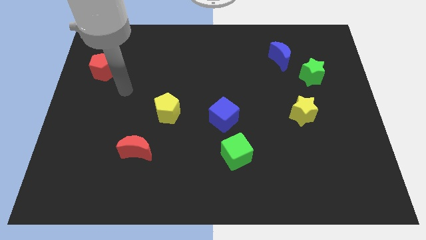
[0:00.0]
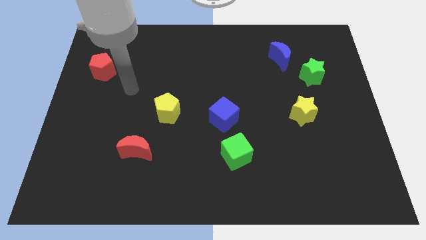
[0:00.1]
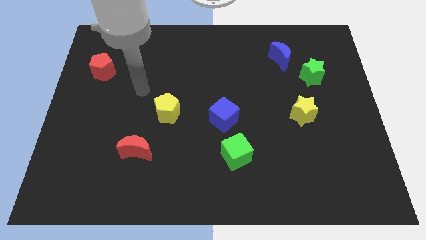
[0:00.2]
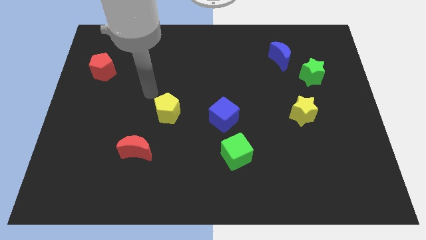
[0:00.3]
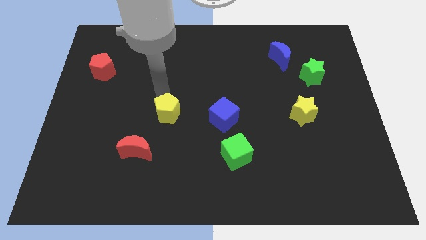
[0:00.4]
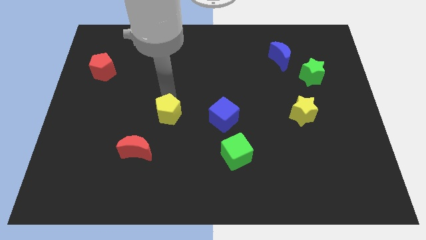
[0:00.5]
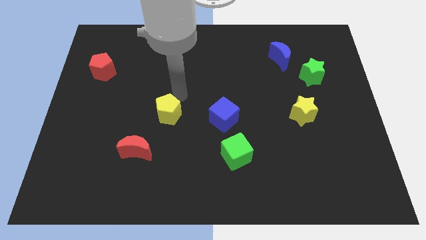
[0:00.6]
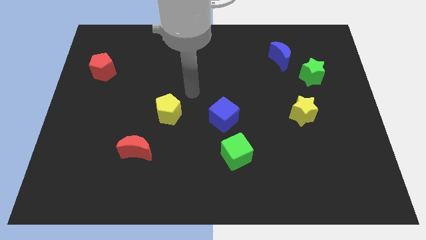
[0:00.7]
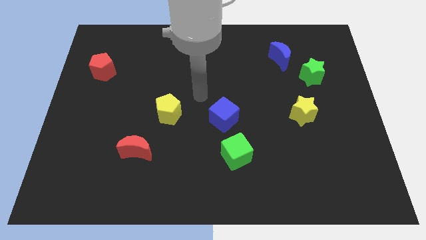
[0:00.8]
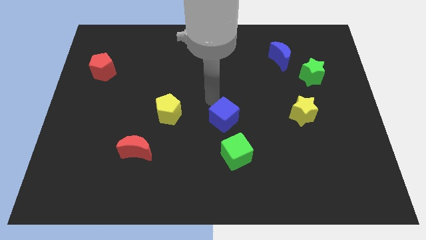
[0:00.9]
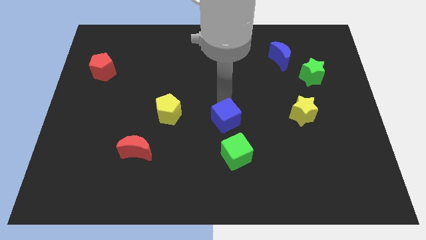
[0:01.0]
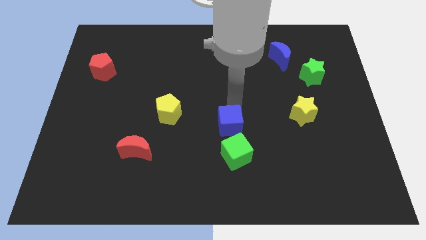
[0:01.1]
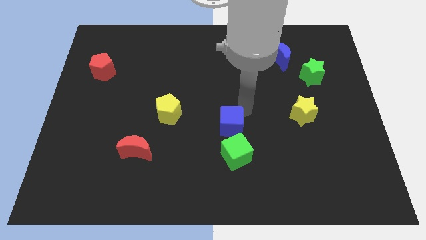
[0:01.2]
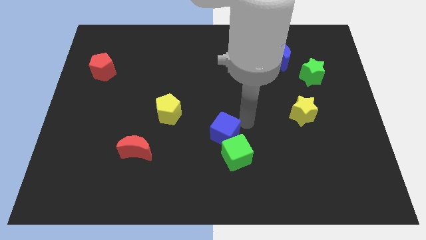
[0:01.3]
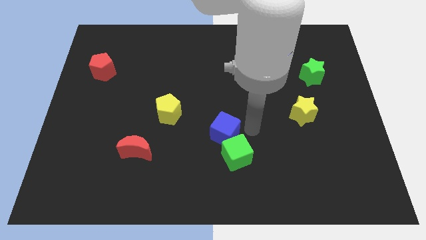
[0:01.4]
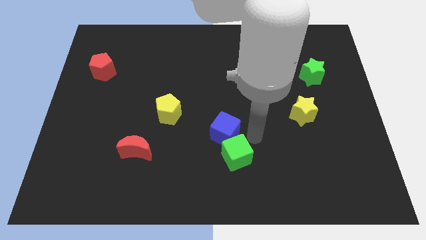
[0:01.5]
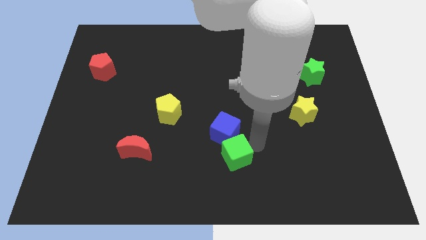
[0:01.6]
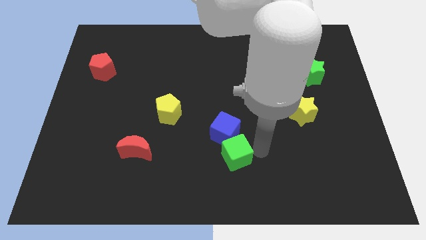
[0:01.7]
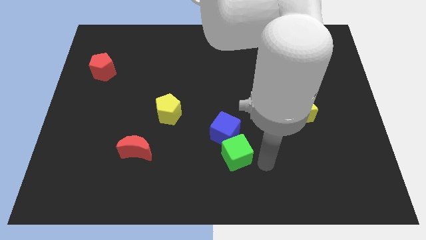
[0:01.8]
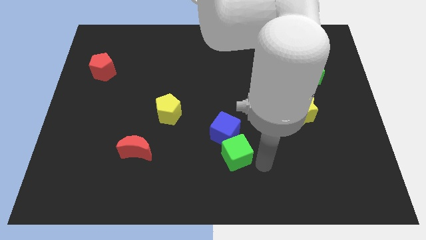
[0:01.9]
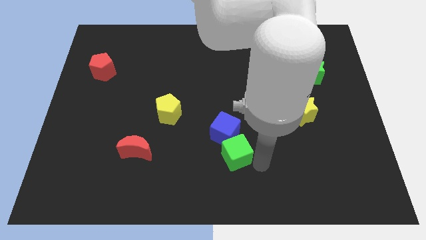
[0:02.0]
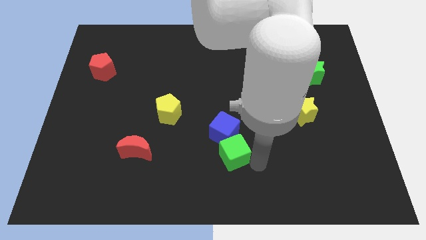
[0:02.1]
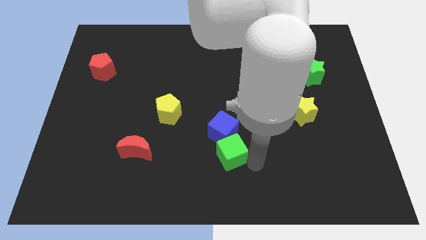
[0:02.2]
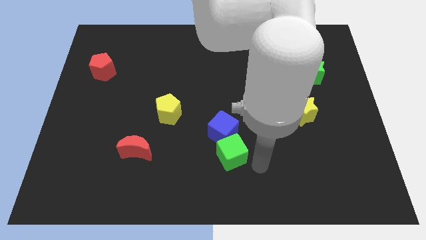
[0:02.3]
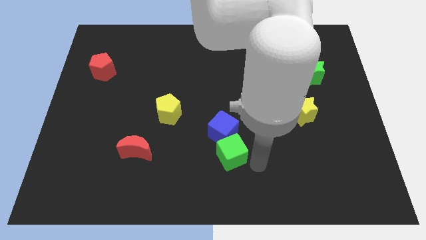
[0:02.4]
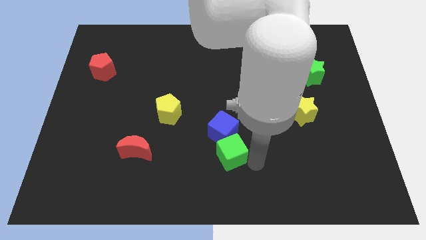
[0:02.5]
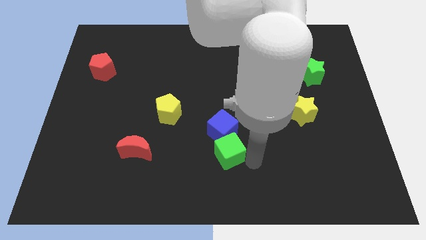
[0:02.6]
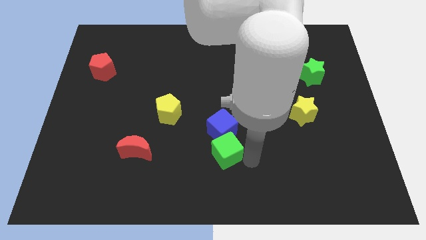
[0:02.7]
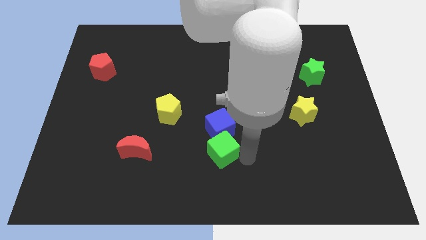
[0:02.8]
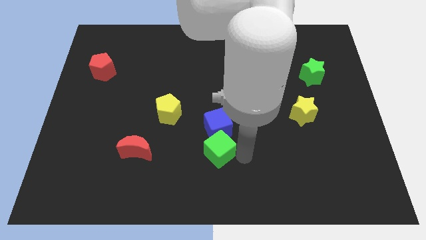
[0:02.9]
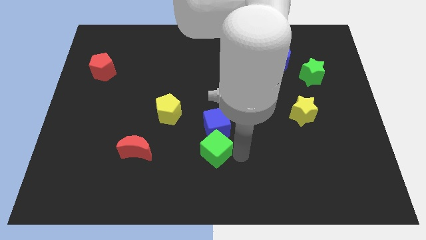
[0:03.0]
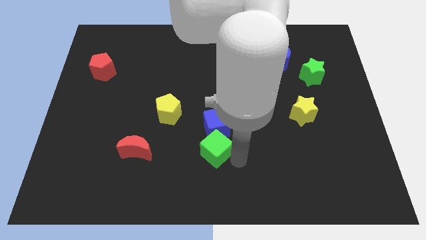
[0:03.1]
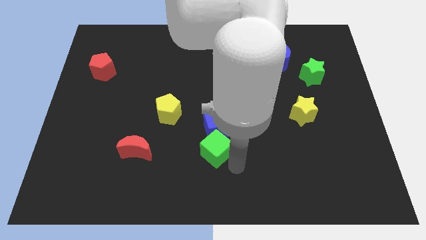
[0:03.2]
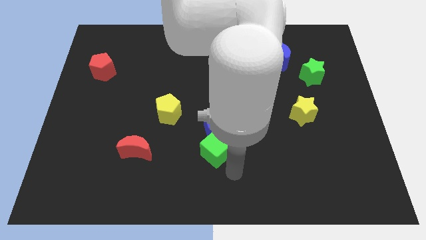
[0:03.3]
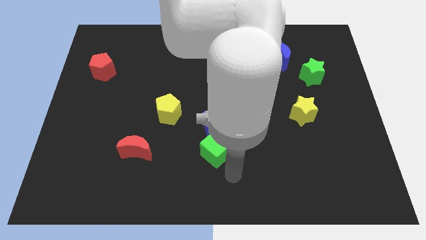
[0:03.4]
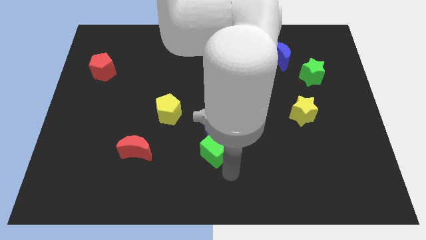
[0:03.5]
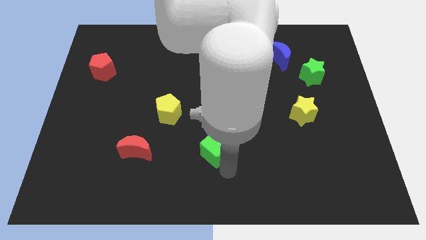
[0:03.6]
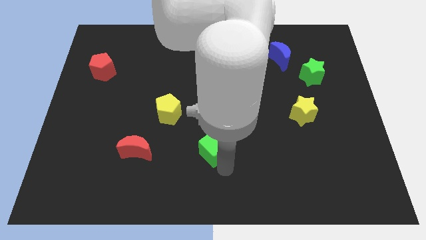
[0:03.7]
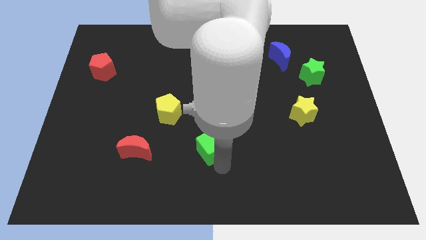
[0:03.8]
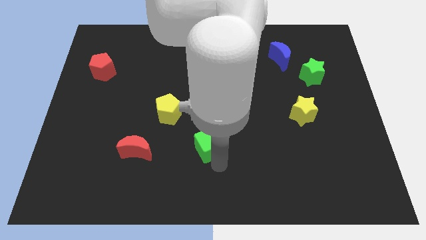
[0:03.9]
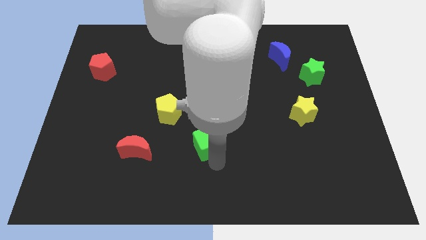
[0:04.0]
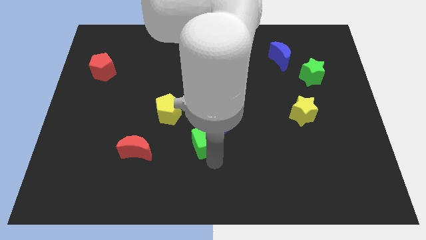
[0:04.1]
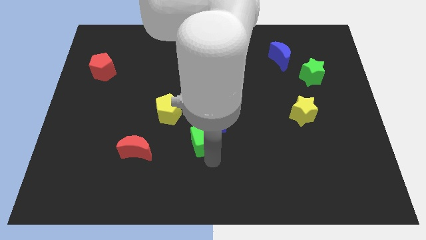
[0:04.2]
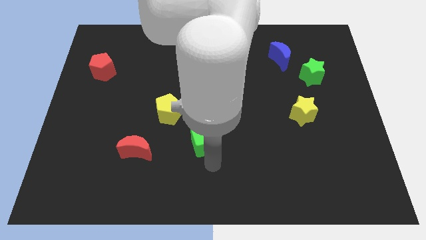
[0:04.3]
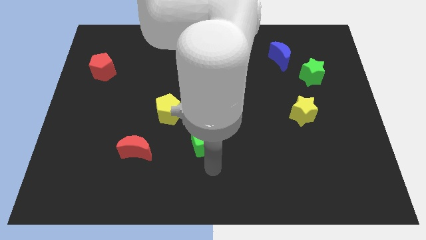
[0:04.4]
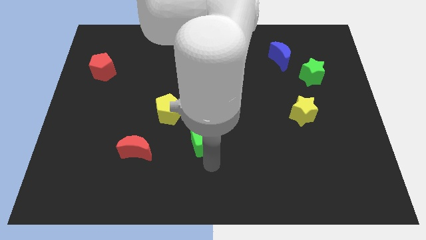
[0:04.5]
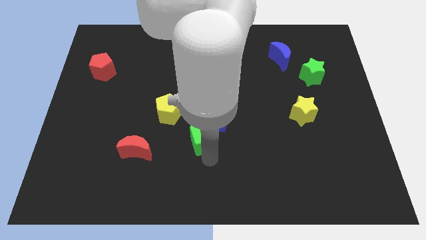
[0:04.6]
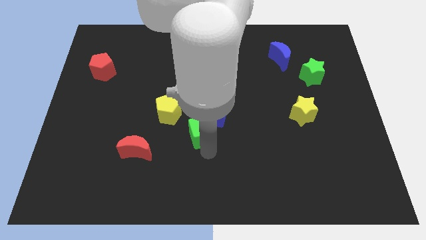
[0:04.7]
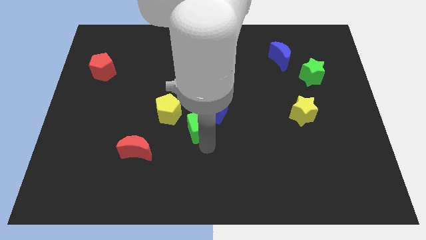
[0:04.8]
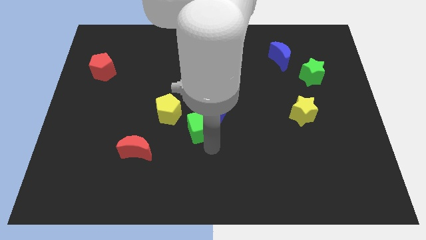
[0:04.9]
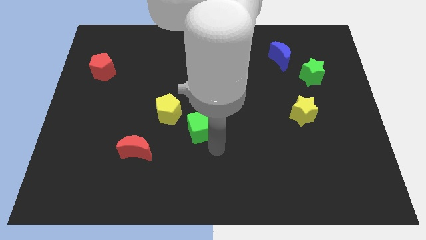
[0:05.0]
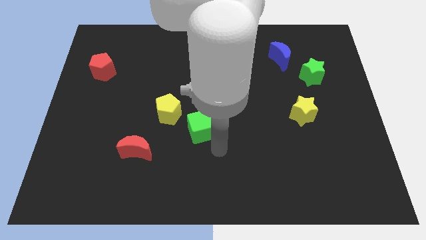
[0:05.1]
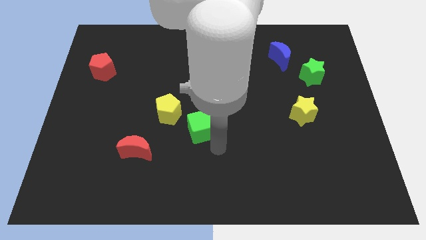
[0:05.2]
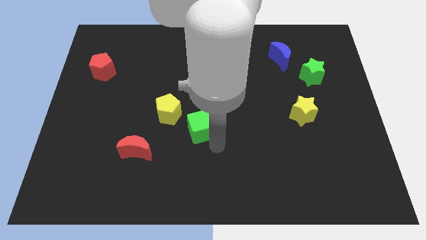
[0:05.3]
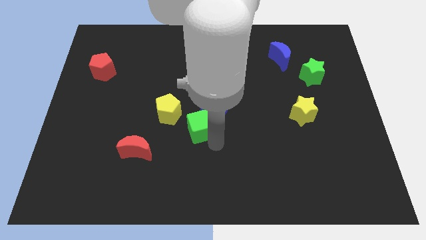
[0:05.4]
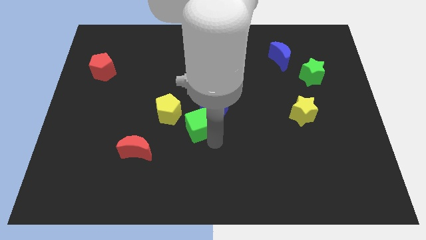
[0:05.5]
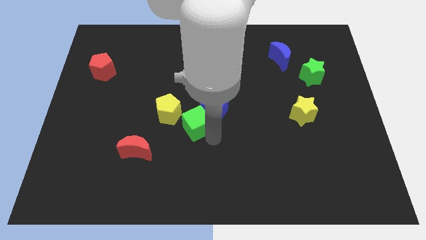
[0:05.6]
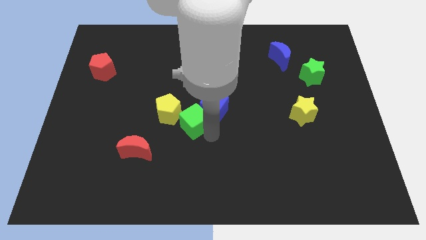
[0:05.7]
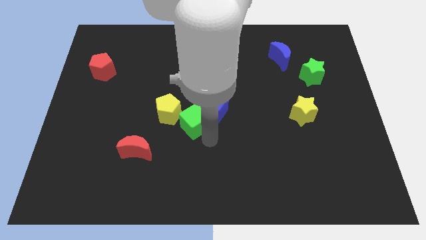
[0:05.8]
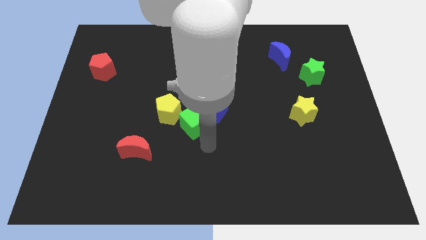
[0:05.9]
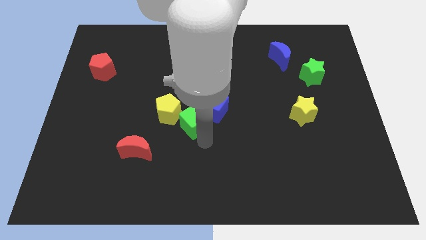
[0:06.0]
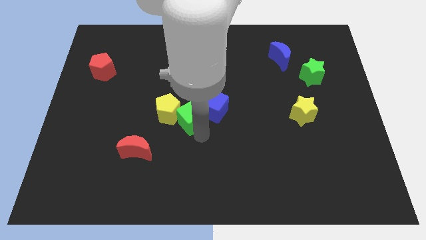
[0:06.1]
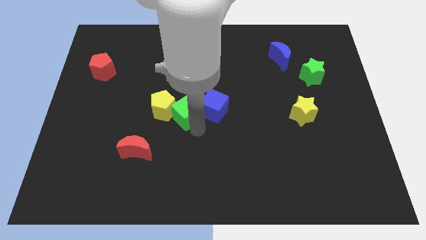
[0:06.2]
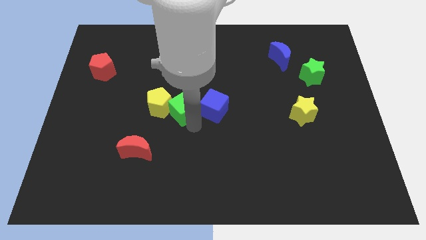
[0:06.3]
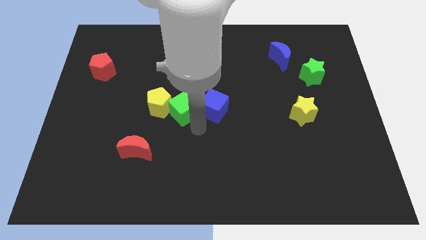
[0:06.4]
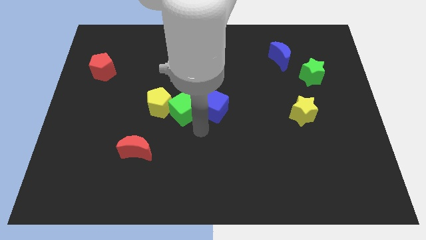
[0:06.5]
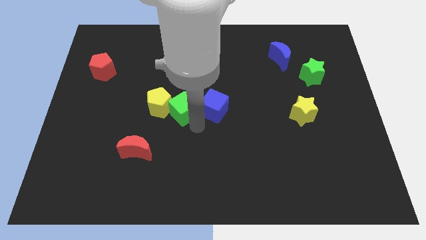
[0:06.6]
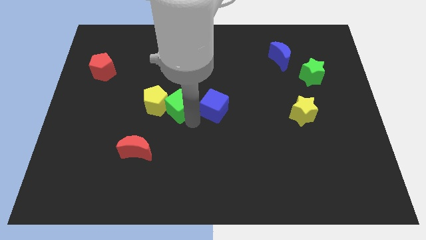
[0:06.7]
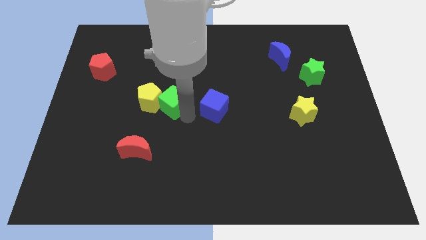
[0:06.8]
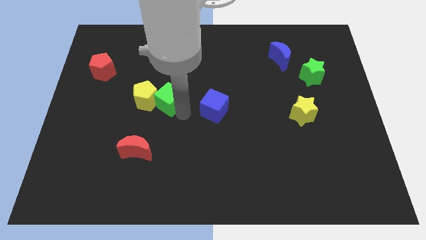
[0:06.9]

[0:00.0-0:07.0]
push the green cube diagonally upwards and to the left

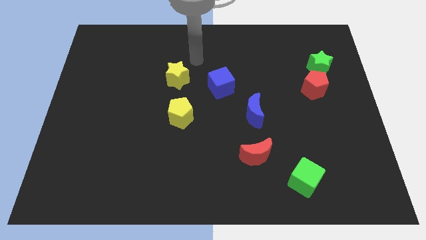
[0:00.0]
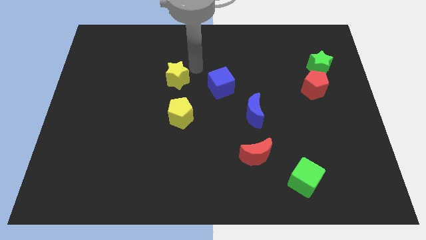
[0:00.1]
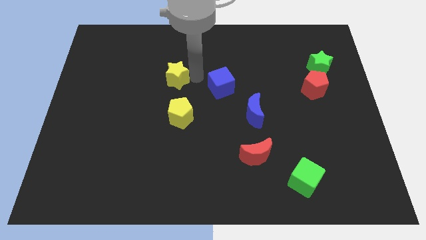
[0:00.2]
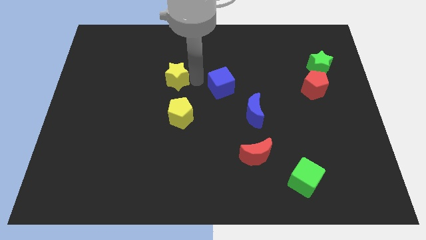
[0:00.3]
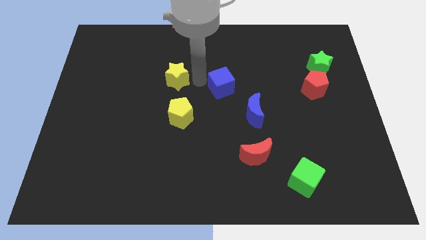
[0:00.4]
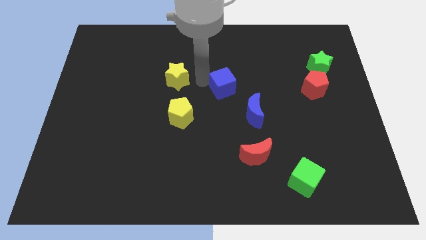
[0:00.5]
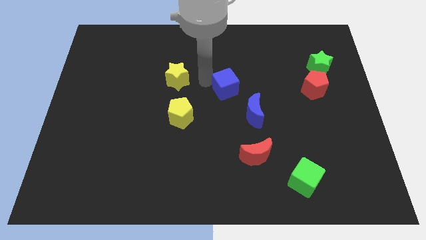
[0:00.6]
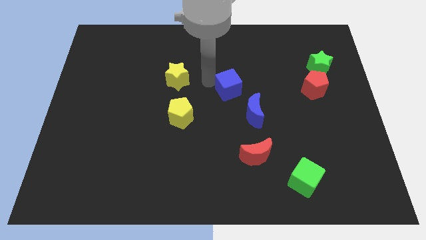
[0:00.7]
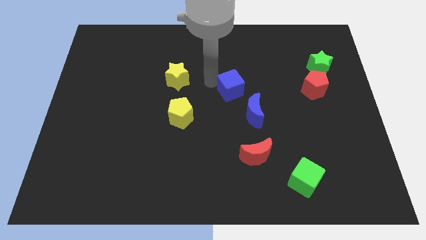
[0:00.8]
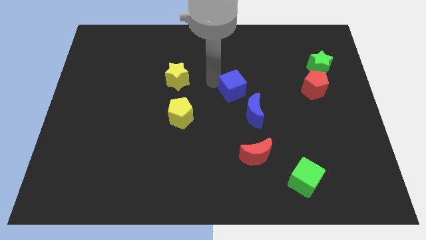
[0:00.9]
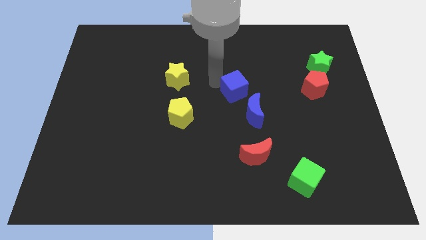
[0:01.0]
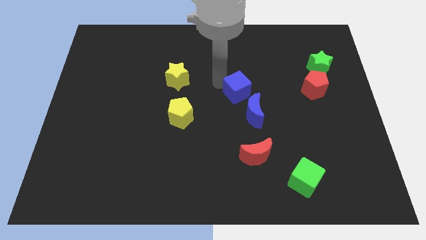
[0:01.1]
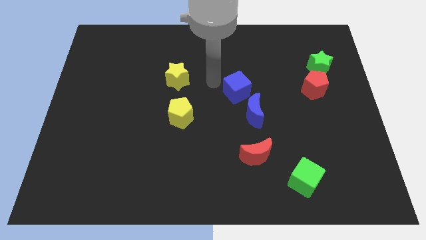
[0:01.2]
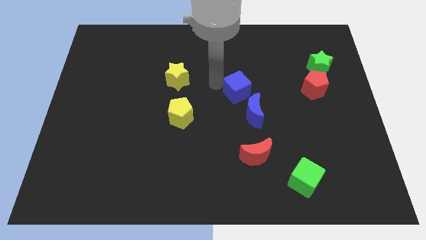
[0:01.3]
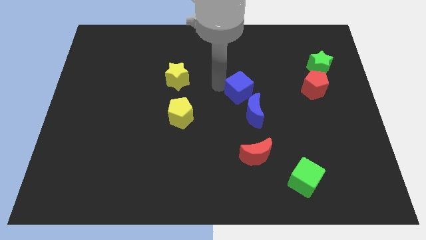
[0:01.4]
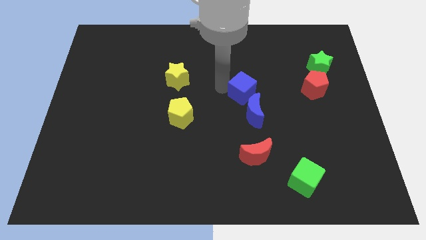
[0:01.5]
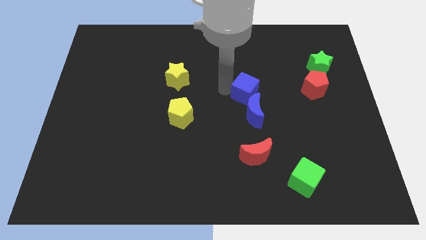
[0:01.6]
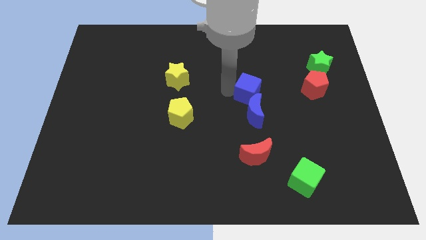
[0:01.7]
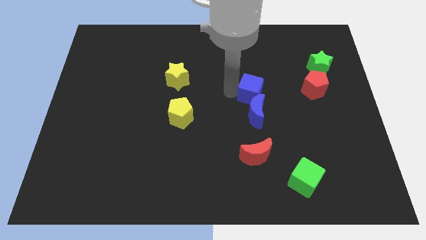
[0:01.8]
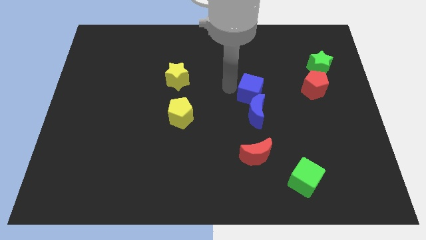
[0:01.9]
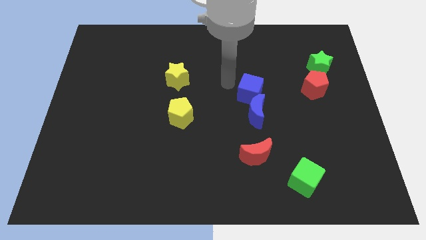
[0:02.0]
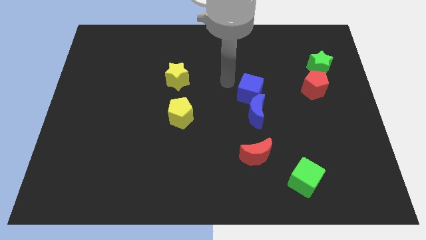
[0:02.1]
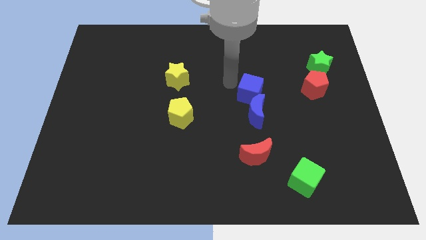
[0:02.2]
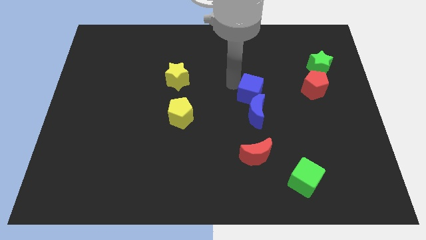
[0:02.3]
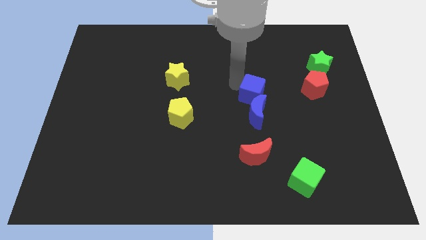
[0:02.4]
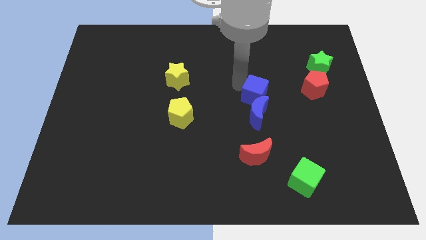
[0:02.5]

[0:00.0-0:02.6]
slide the blue cube a little diagonally down and right
